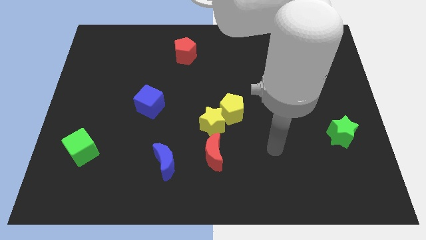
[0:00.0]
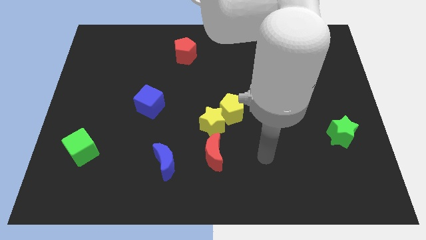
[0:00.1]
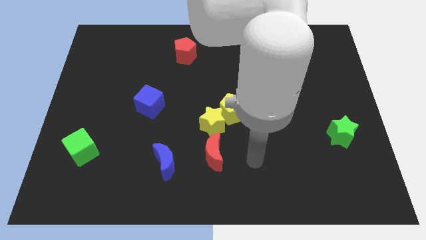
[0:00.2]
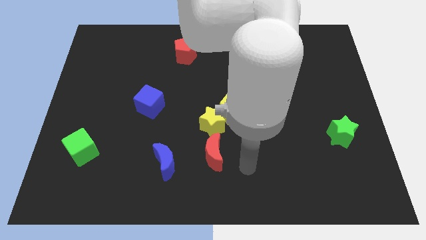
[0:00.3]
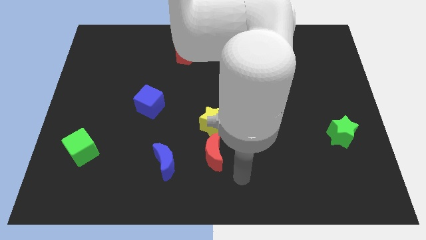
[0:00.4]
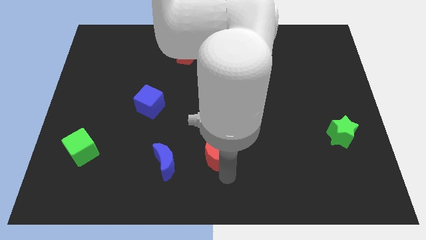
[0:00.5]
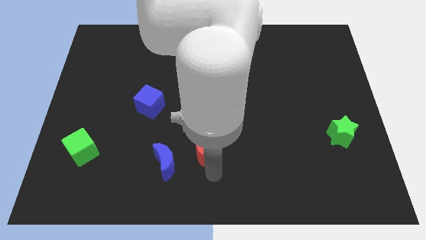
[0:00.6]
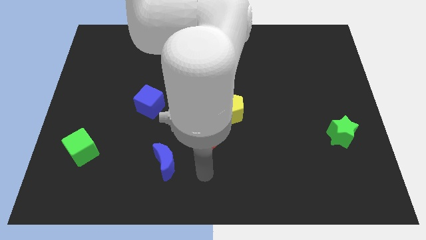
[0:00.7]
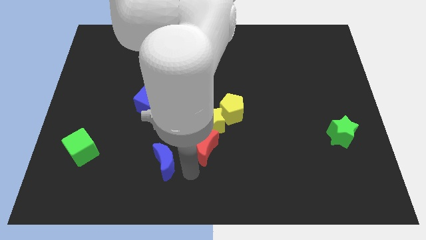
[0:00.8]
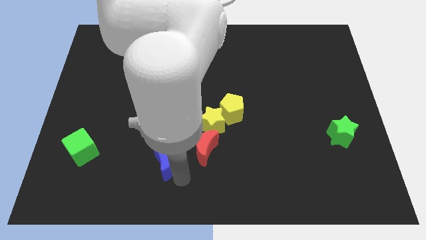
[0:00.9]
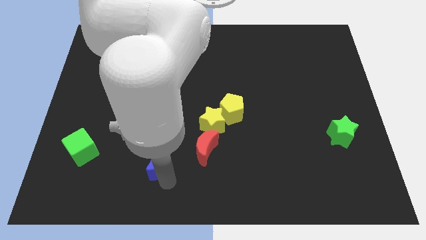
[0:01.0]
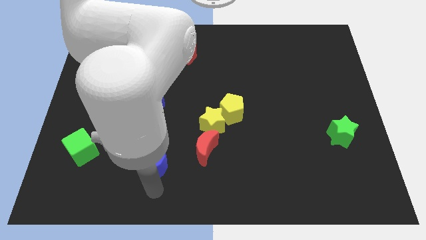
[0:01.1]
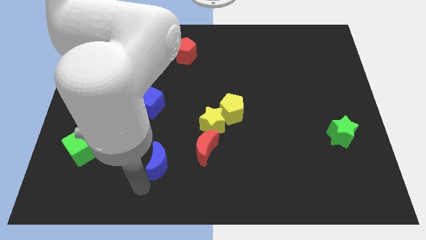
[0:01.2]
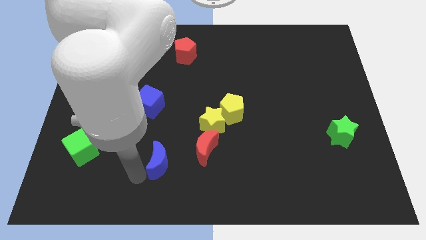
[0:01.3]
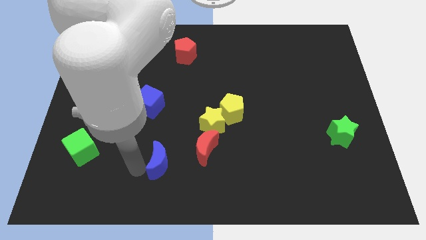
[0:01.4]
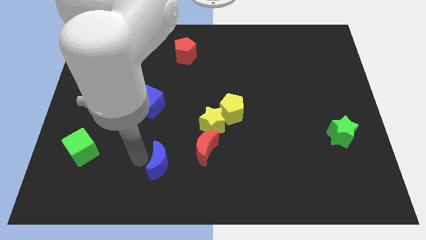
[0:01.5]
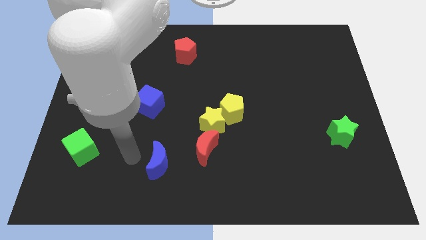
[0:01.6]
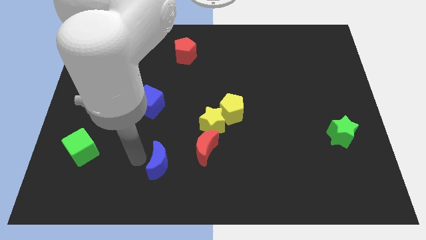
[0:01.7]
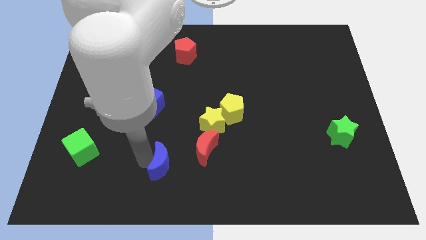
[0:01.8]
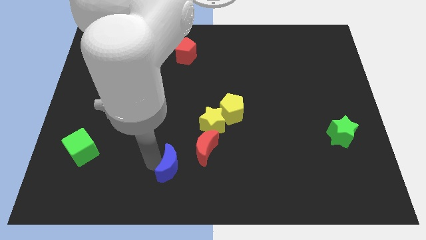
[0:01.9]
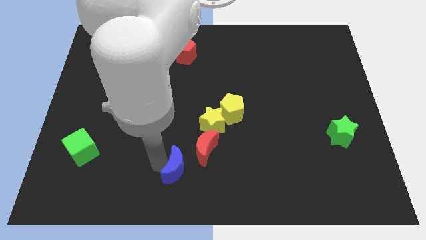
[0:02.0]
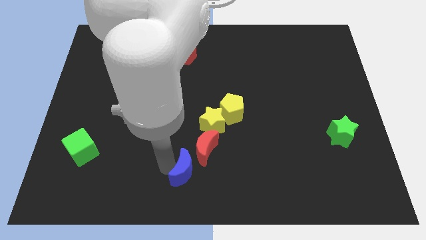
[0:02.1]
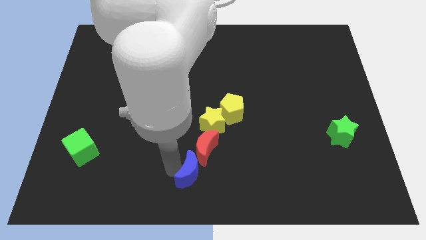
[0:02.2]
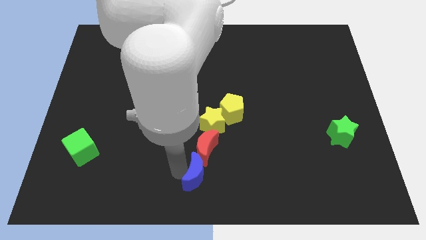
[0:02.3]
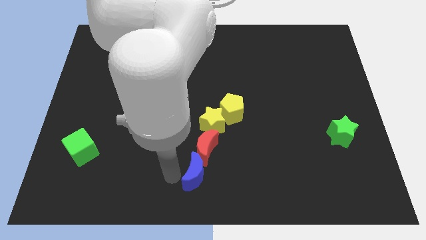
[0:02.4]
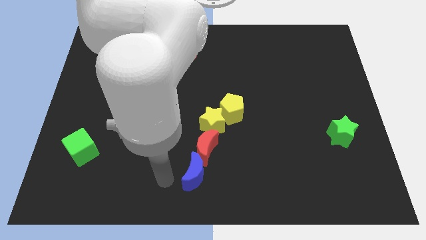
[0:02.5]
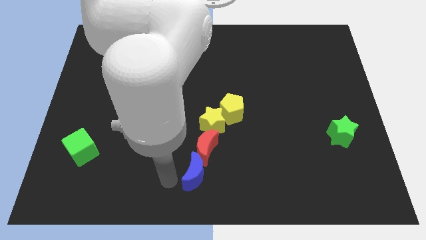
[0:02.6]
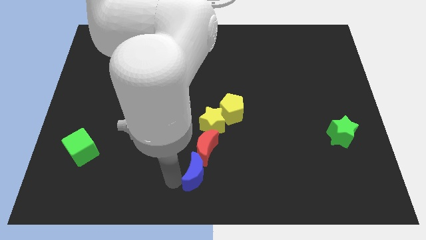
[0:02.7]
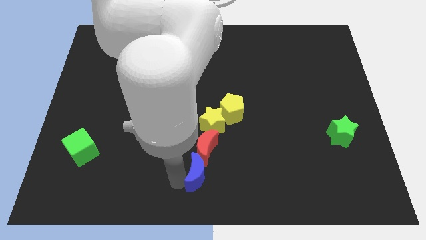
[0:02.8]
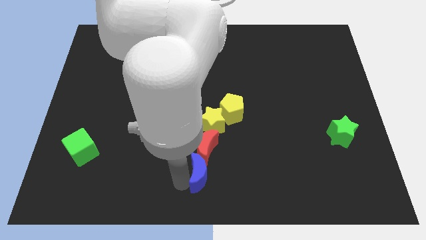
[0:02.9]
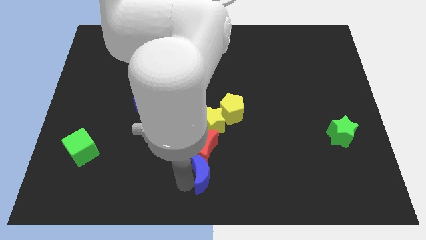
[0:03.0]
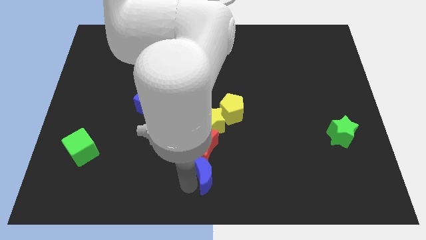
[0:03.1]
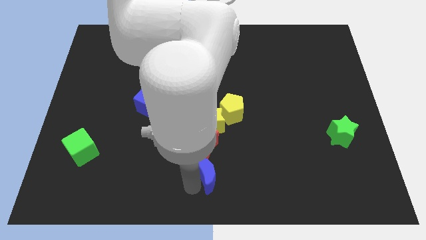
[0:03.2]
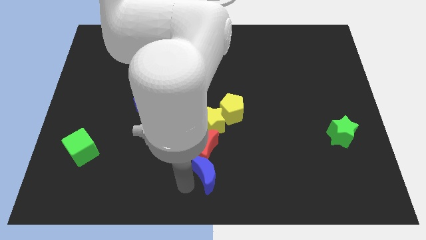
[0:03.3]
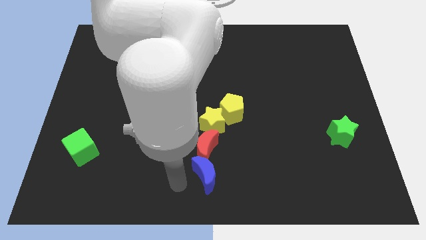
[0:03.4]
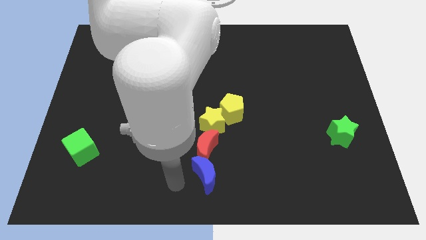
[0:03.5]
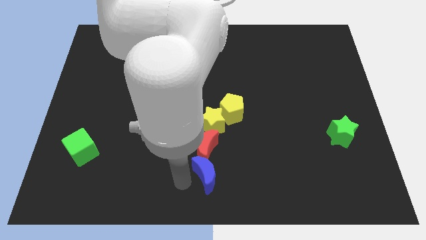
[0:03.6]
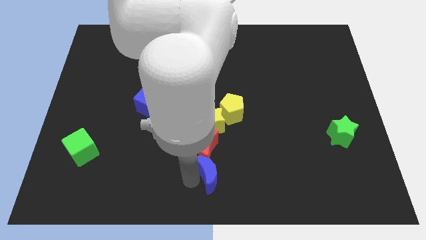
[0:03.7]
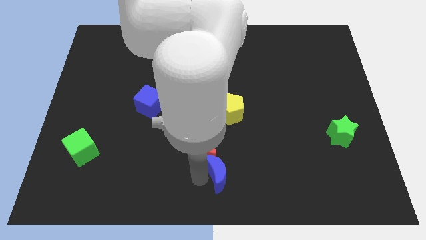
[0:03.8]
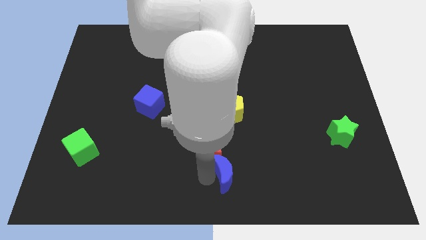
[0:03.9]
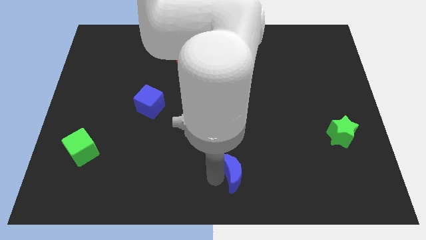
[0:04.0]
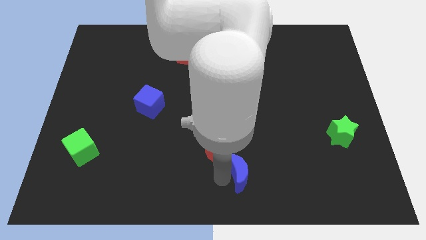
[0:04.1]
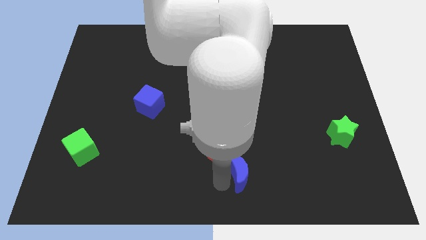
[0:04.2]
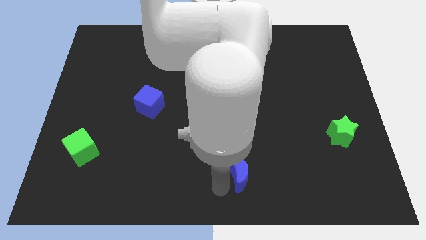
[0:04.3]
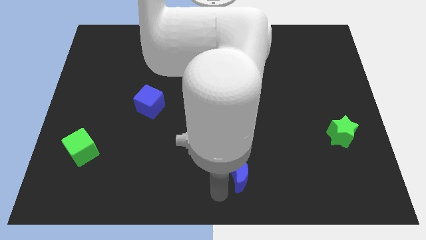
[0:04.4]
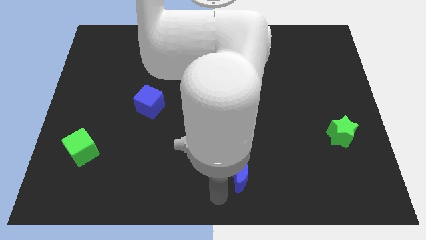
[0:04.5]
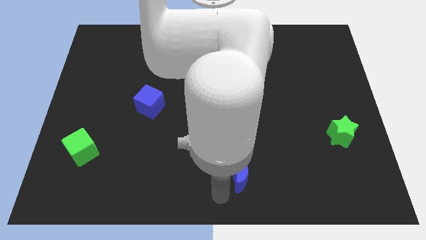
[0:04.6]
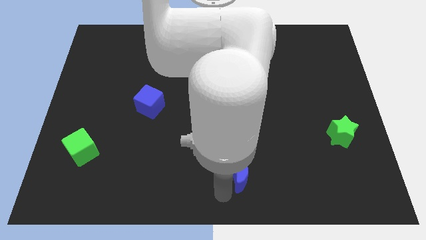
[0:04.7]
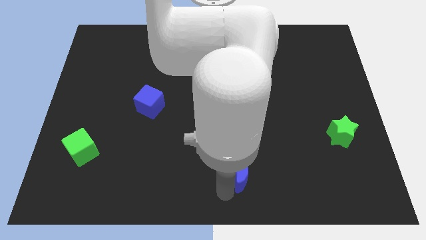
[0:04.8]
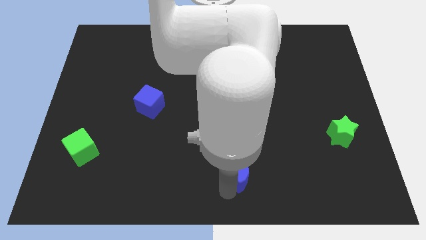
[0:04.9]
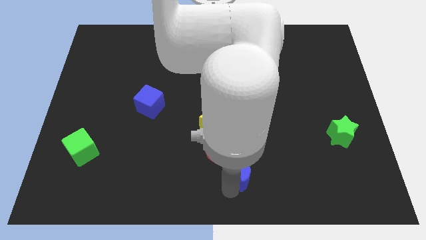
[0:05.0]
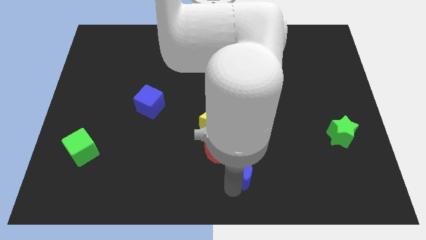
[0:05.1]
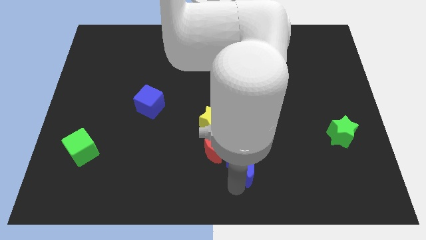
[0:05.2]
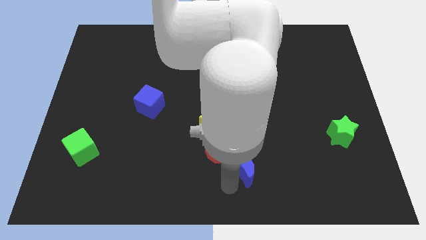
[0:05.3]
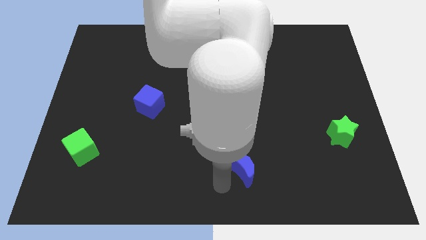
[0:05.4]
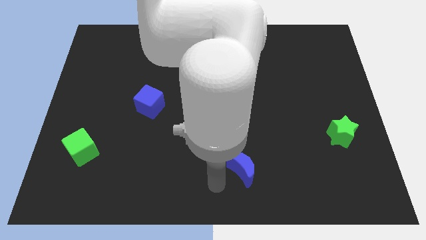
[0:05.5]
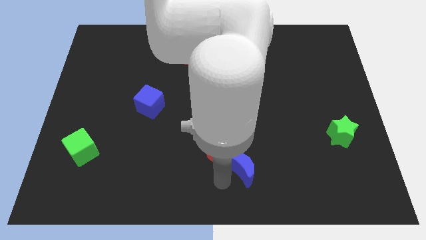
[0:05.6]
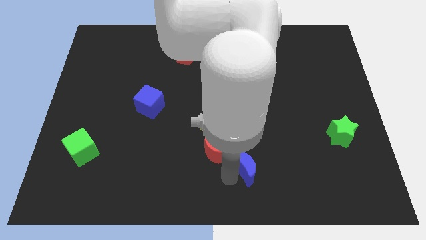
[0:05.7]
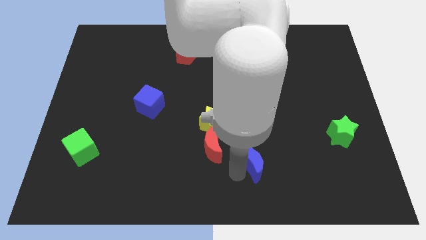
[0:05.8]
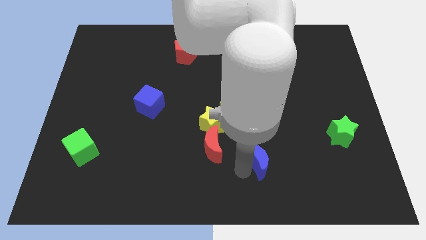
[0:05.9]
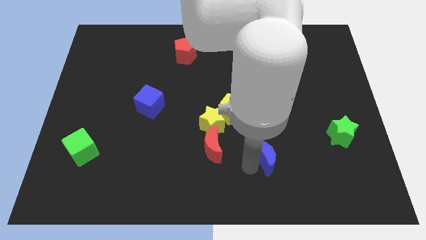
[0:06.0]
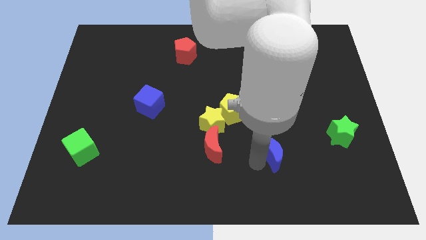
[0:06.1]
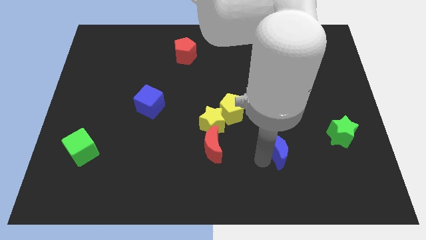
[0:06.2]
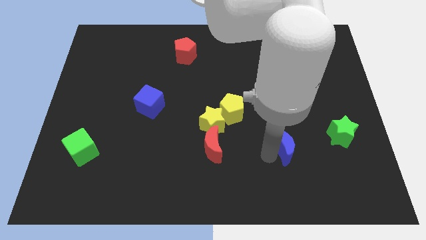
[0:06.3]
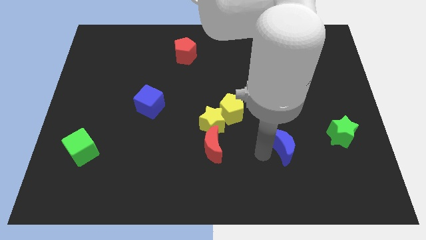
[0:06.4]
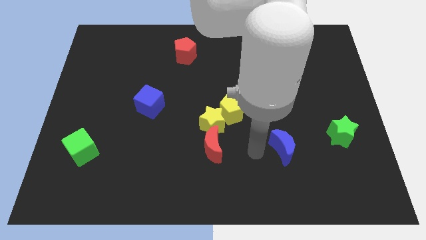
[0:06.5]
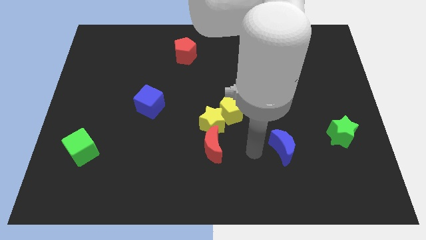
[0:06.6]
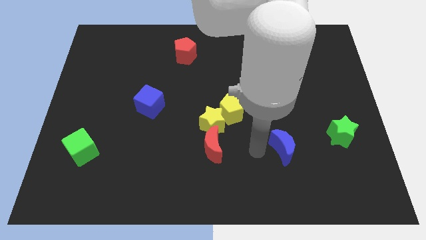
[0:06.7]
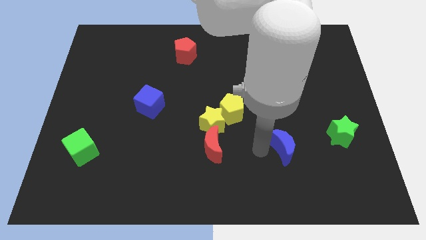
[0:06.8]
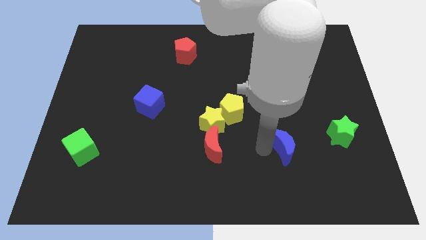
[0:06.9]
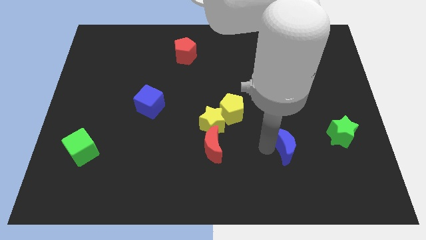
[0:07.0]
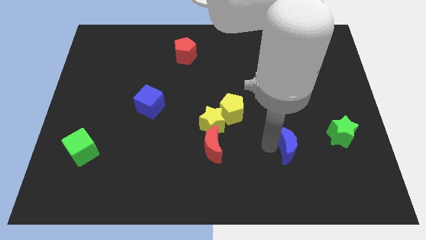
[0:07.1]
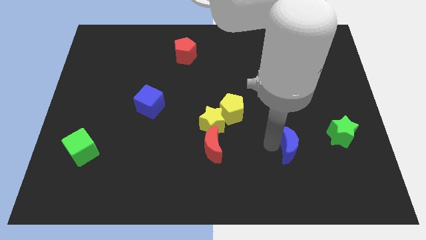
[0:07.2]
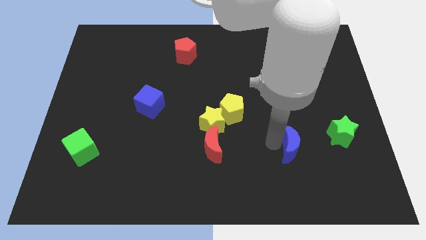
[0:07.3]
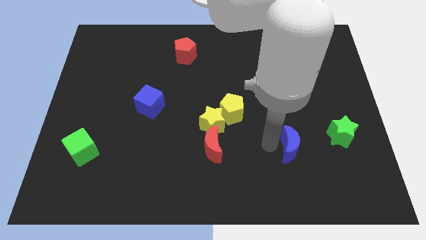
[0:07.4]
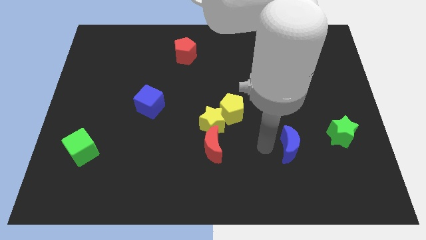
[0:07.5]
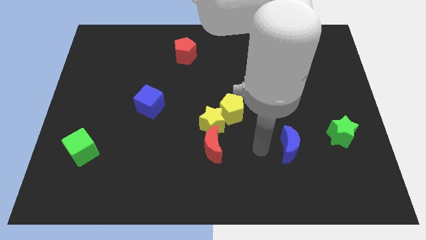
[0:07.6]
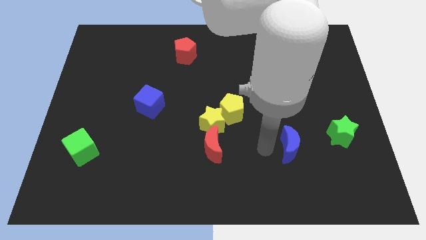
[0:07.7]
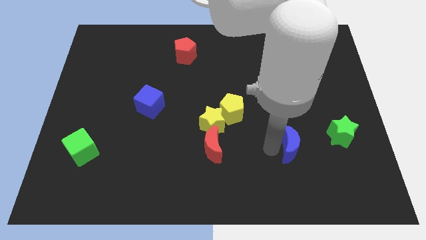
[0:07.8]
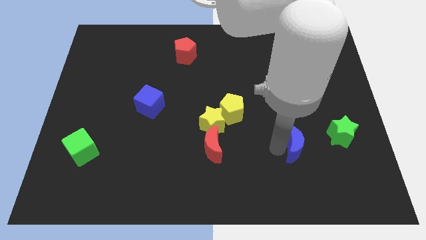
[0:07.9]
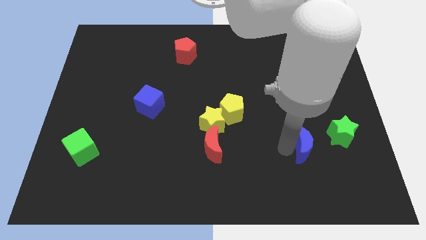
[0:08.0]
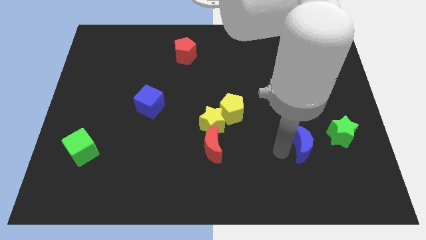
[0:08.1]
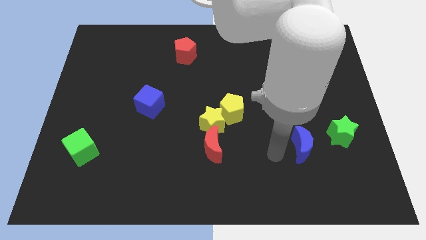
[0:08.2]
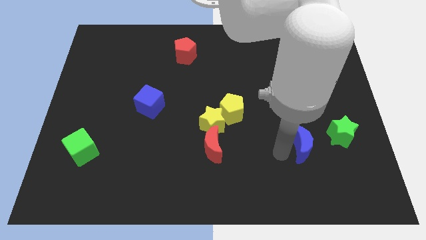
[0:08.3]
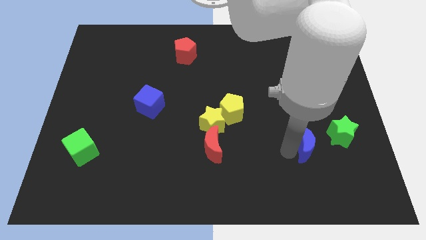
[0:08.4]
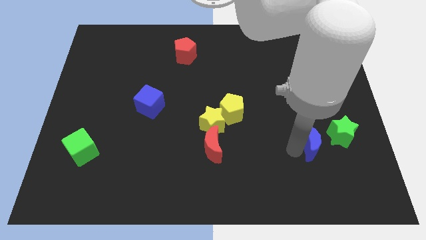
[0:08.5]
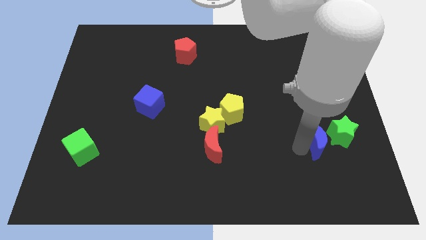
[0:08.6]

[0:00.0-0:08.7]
put the blue moon towards the green star
